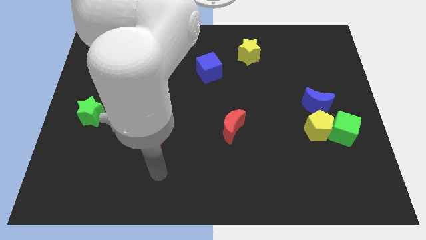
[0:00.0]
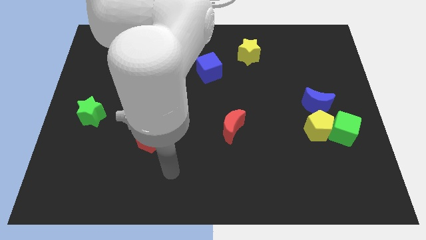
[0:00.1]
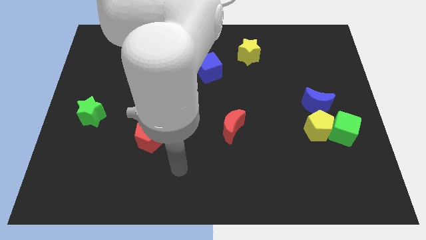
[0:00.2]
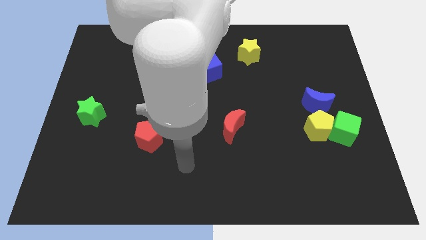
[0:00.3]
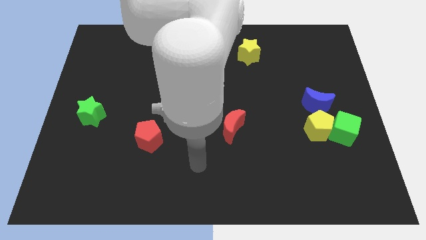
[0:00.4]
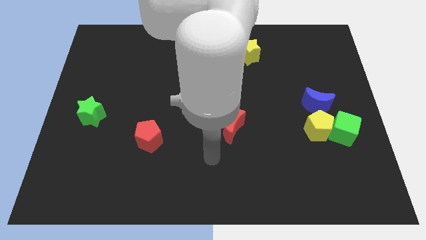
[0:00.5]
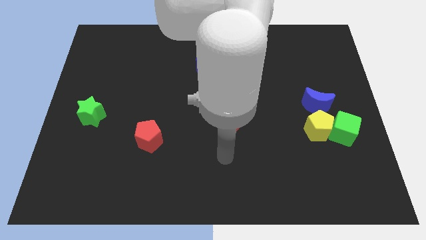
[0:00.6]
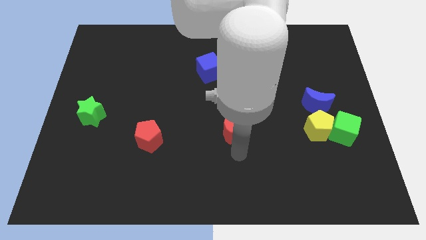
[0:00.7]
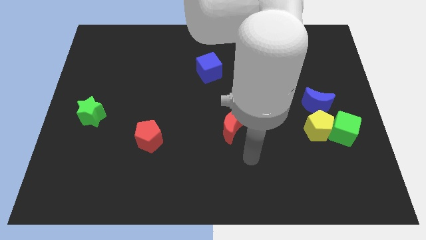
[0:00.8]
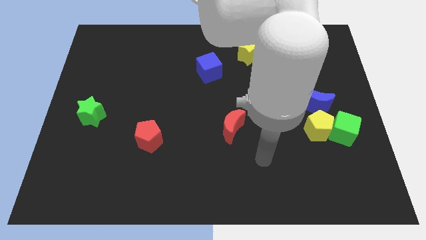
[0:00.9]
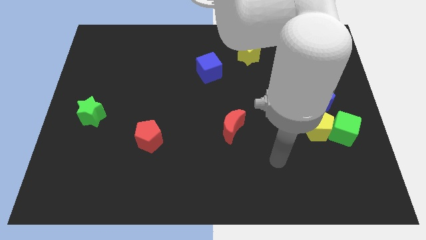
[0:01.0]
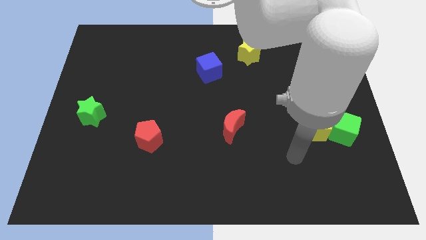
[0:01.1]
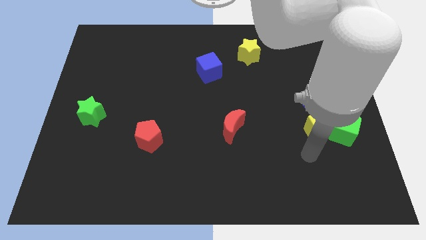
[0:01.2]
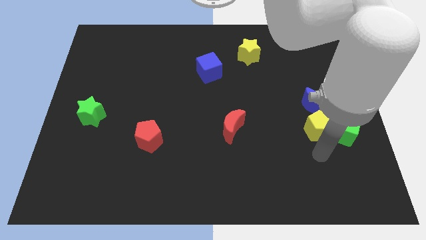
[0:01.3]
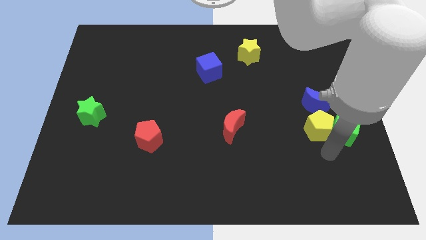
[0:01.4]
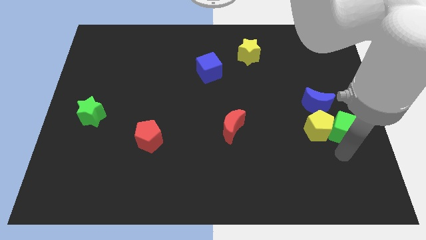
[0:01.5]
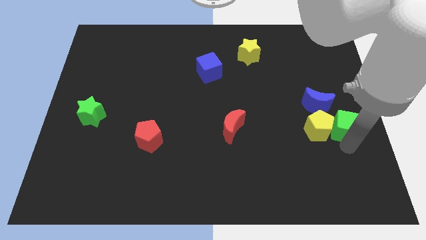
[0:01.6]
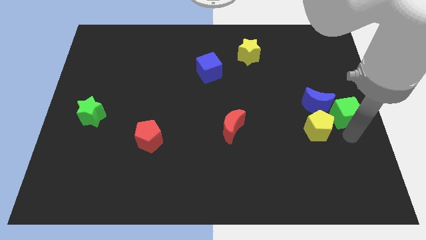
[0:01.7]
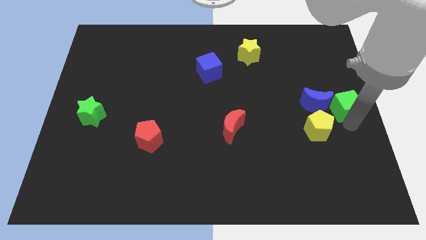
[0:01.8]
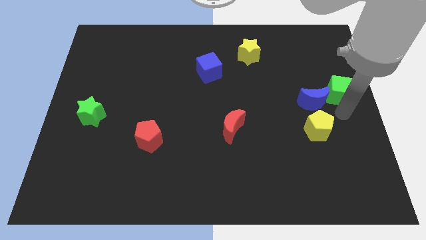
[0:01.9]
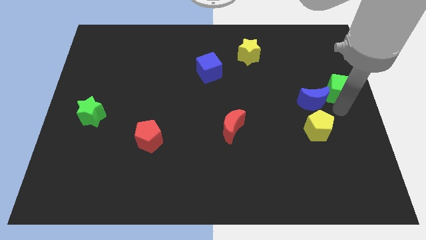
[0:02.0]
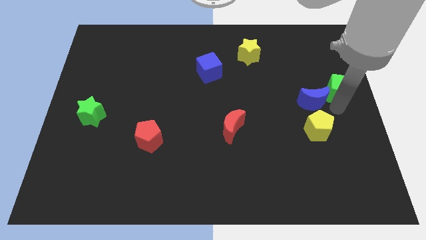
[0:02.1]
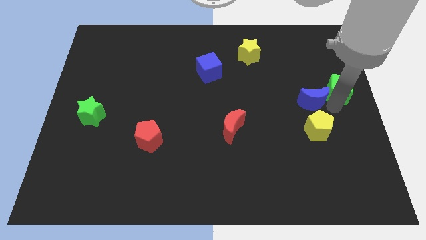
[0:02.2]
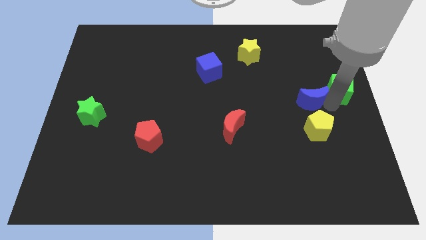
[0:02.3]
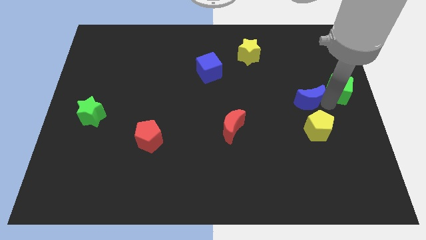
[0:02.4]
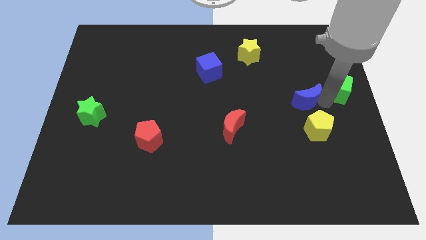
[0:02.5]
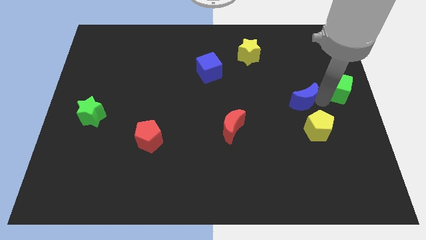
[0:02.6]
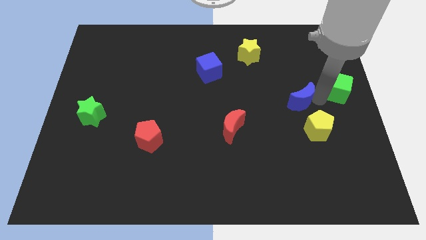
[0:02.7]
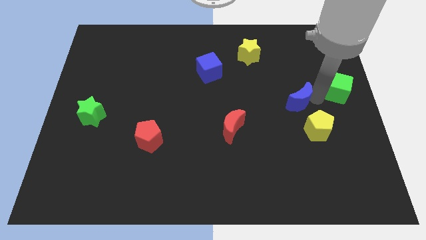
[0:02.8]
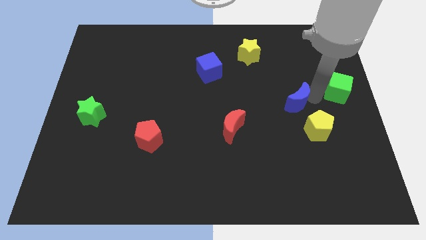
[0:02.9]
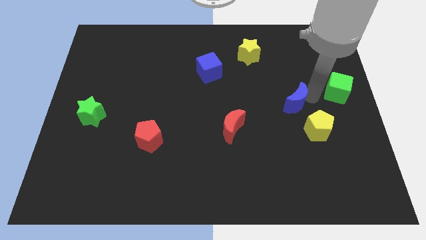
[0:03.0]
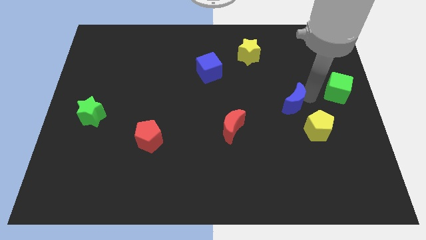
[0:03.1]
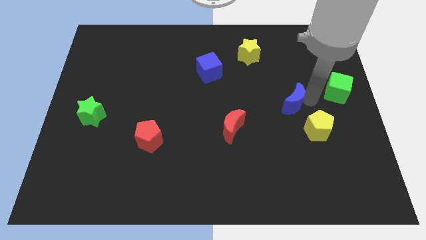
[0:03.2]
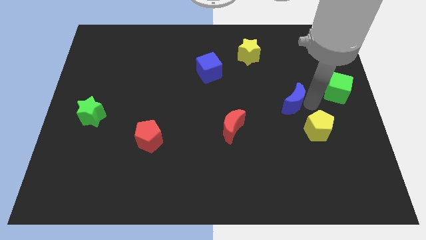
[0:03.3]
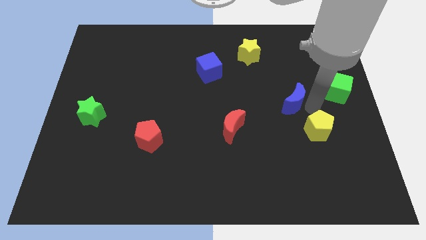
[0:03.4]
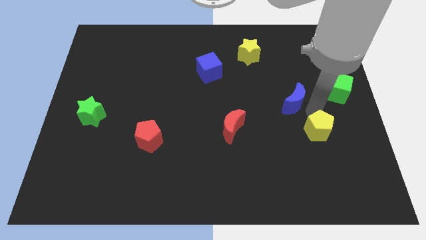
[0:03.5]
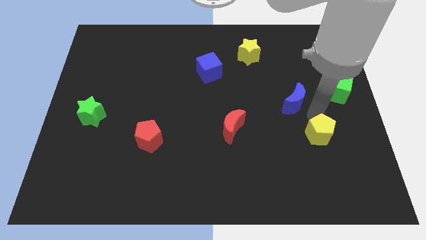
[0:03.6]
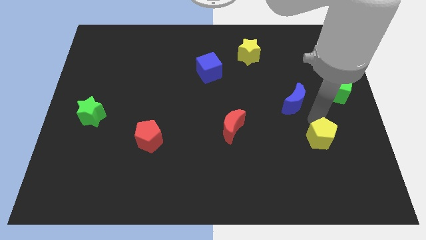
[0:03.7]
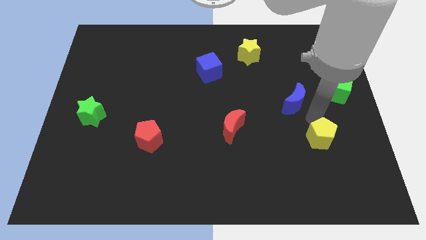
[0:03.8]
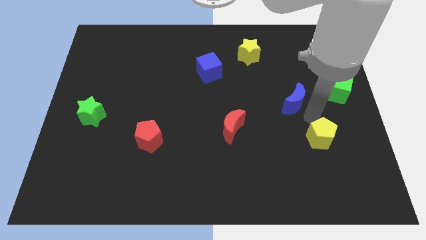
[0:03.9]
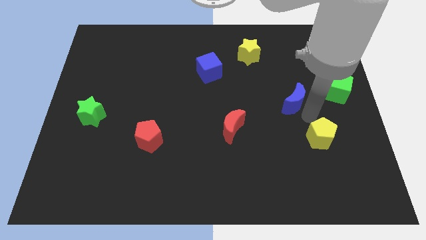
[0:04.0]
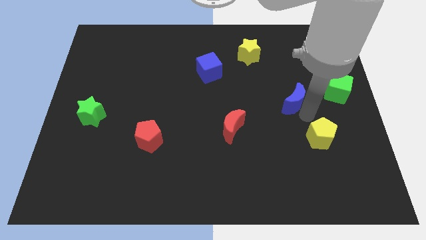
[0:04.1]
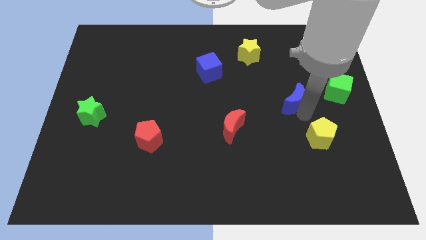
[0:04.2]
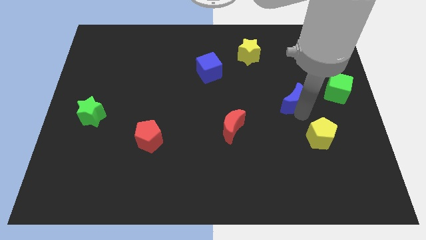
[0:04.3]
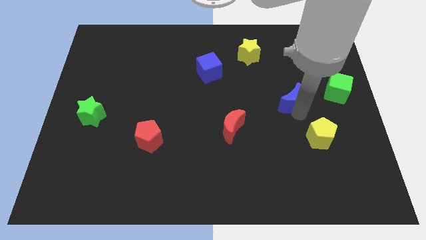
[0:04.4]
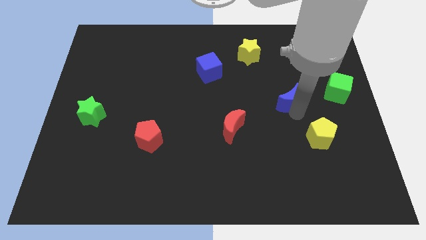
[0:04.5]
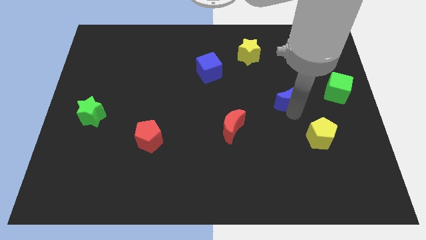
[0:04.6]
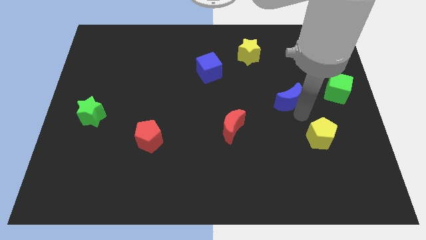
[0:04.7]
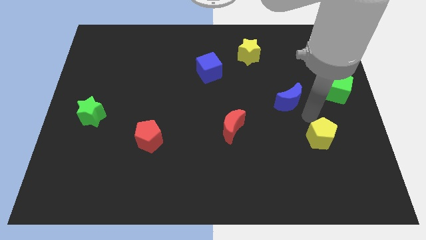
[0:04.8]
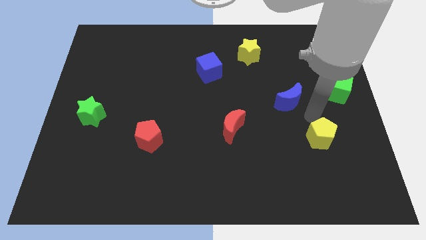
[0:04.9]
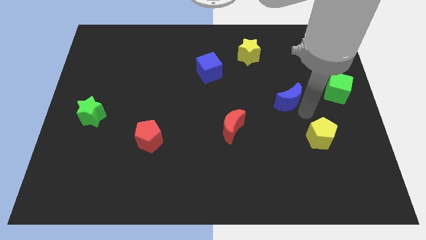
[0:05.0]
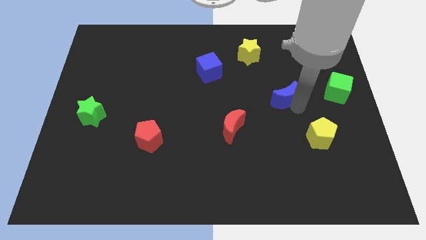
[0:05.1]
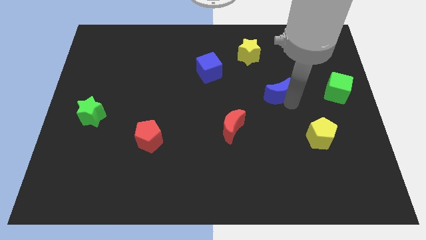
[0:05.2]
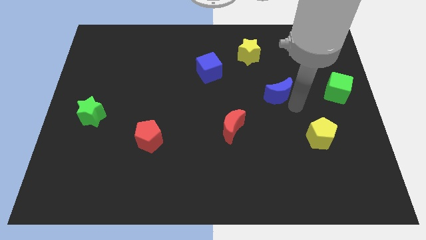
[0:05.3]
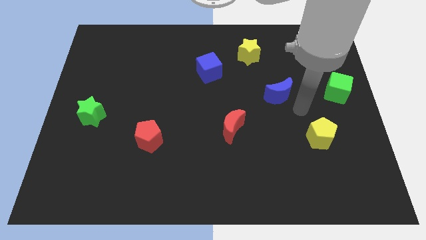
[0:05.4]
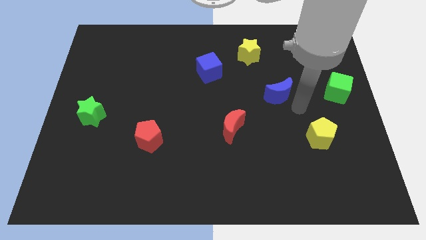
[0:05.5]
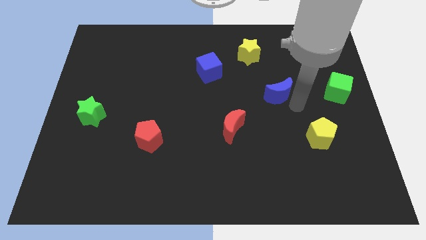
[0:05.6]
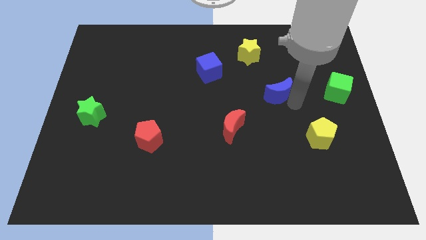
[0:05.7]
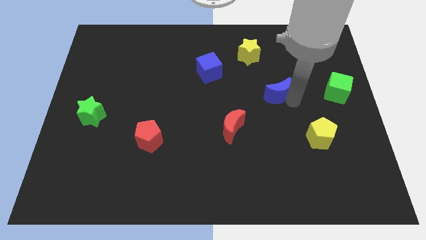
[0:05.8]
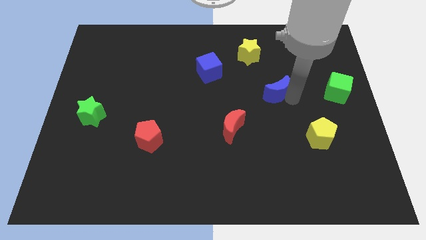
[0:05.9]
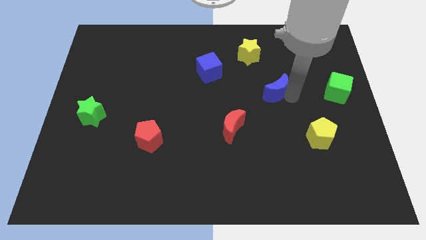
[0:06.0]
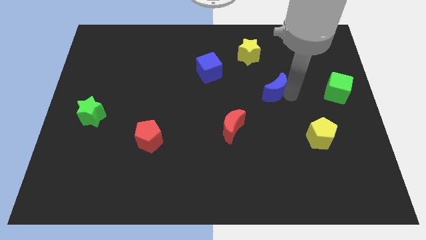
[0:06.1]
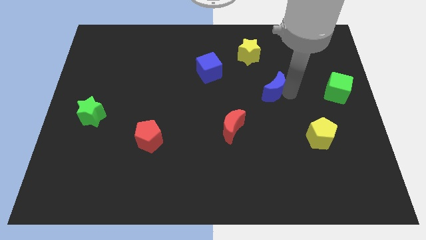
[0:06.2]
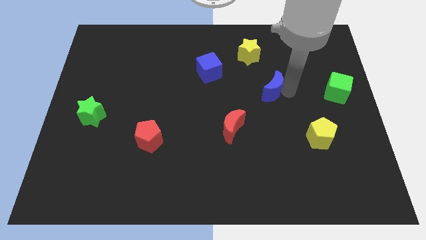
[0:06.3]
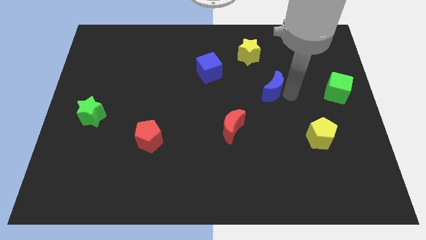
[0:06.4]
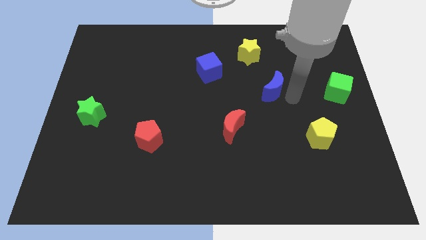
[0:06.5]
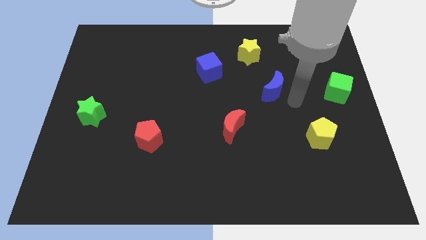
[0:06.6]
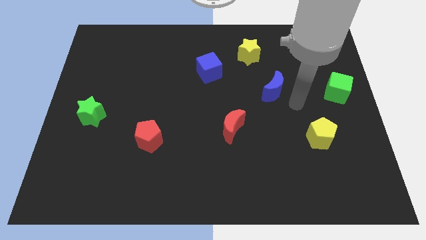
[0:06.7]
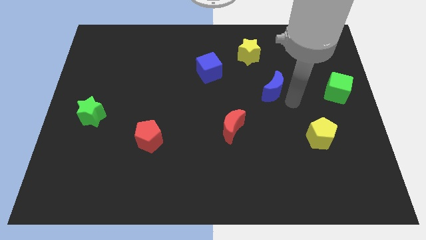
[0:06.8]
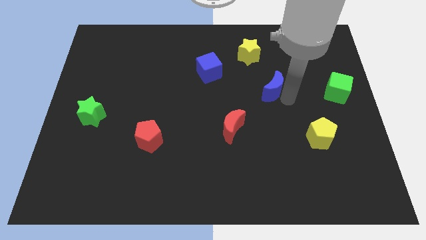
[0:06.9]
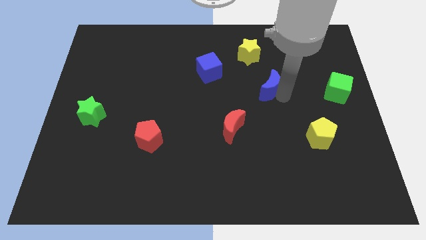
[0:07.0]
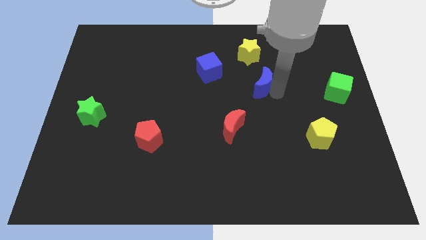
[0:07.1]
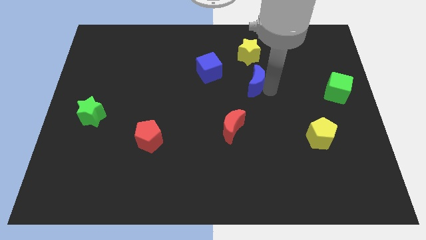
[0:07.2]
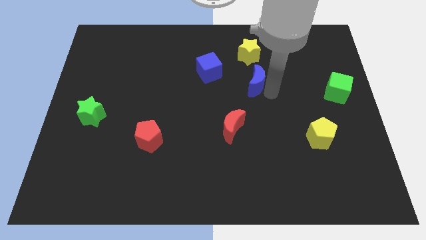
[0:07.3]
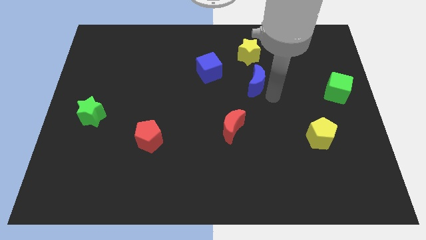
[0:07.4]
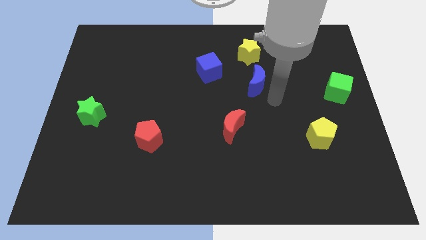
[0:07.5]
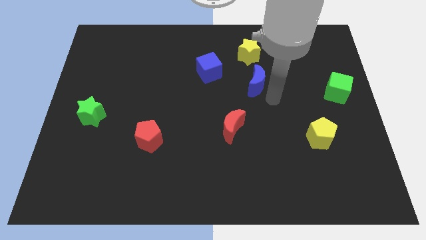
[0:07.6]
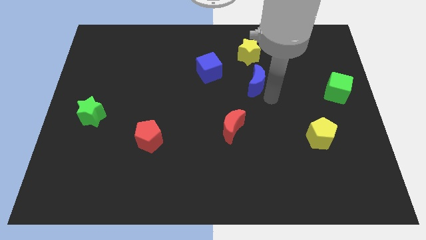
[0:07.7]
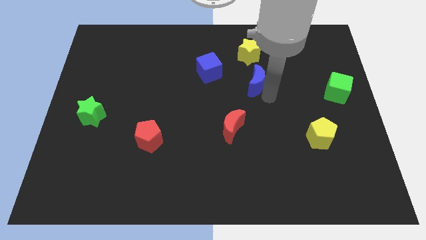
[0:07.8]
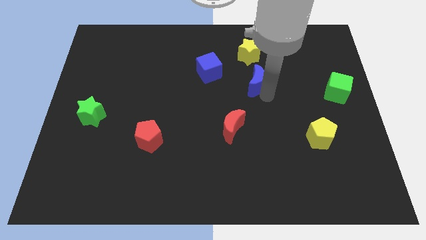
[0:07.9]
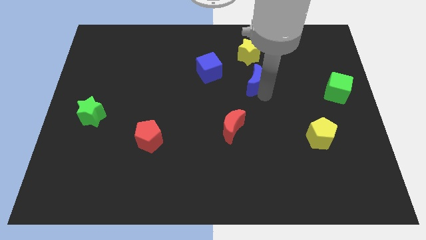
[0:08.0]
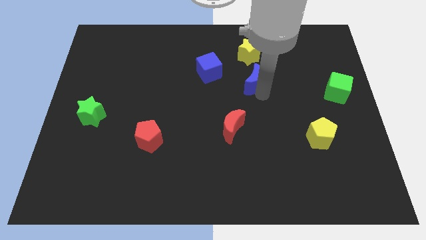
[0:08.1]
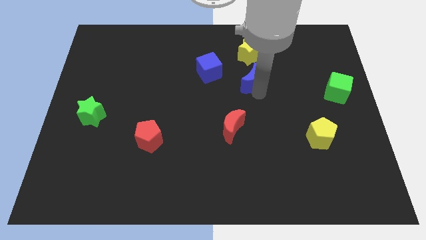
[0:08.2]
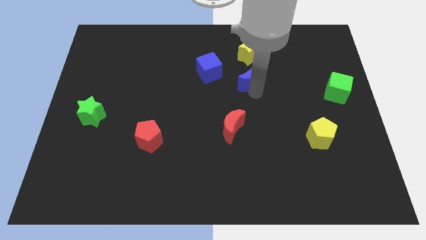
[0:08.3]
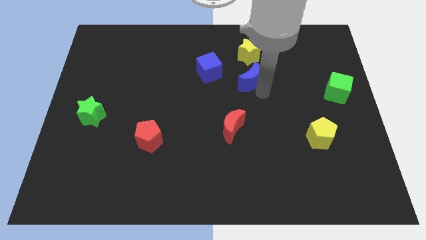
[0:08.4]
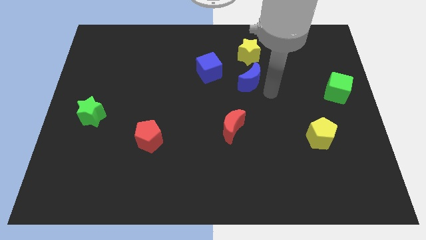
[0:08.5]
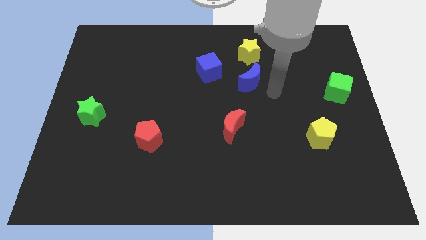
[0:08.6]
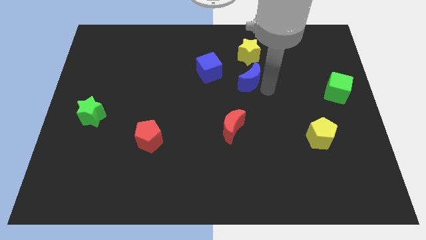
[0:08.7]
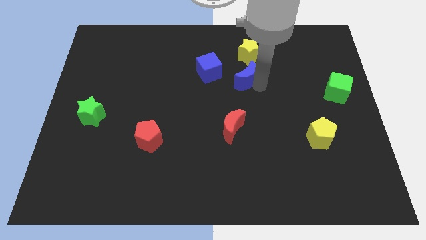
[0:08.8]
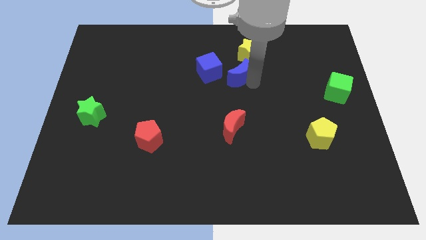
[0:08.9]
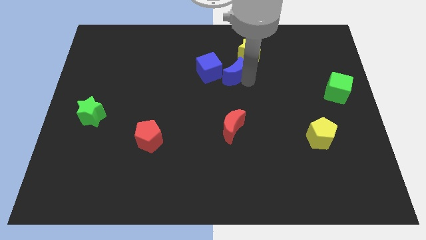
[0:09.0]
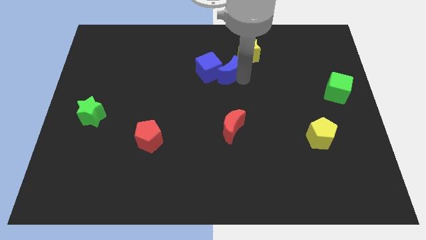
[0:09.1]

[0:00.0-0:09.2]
slide the blue moon next to the blue cube
